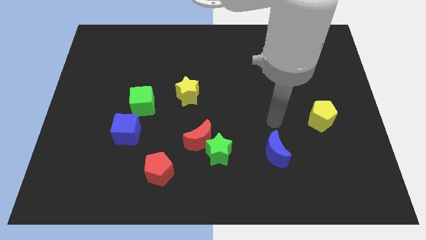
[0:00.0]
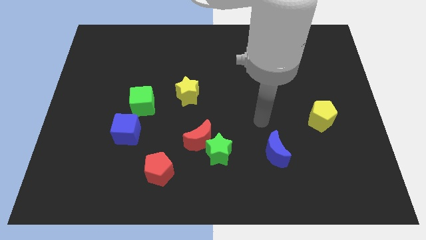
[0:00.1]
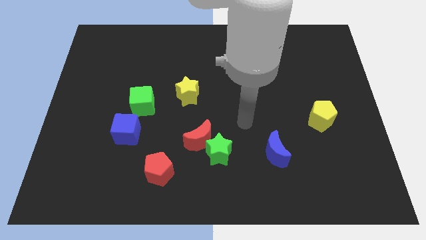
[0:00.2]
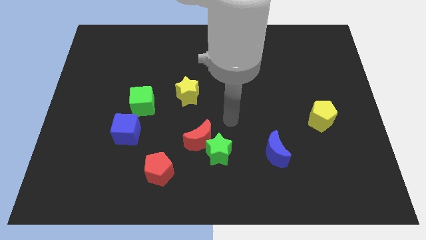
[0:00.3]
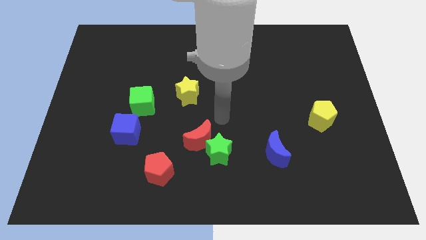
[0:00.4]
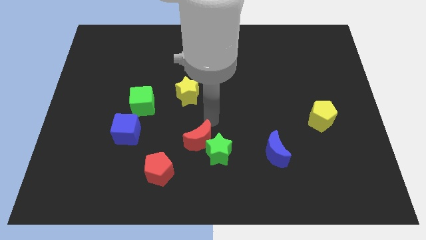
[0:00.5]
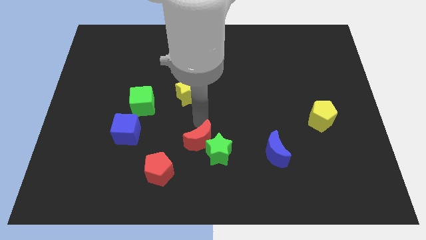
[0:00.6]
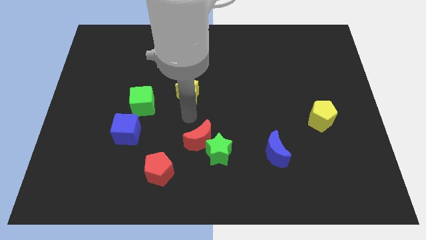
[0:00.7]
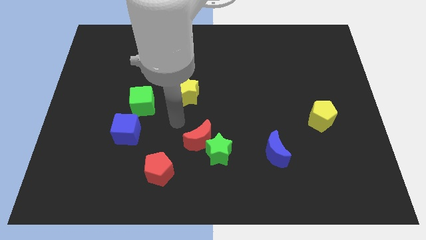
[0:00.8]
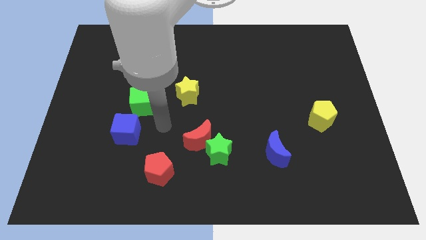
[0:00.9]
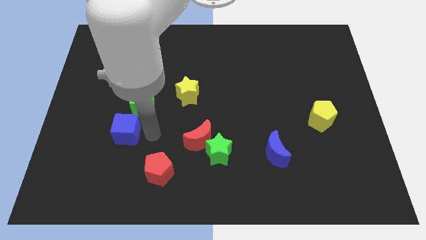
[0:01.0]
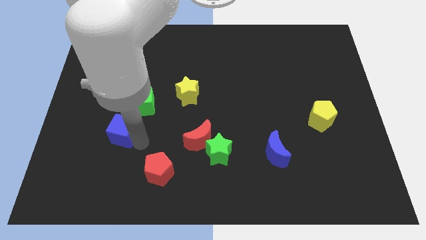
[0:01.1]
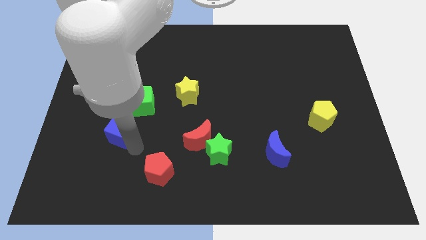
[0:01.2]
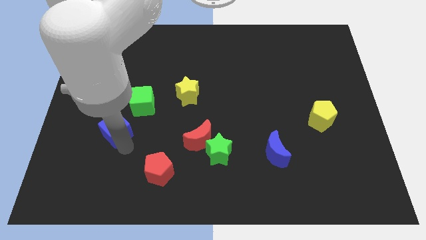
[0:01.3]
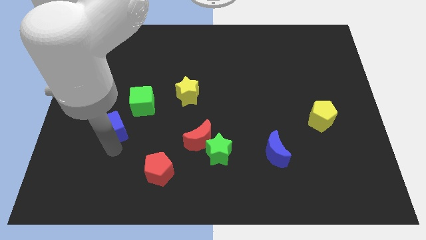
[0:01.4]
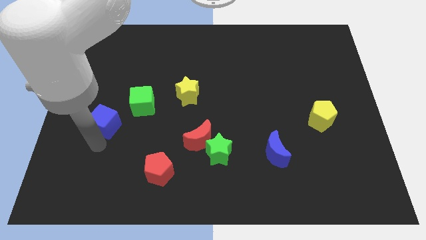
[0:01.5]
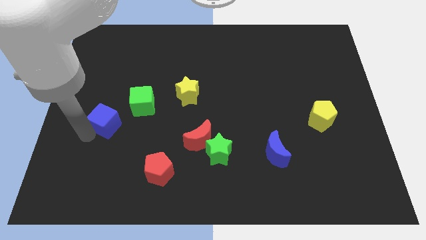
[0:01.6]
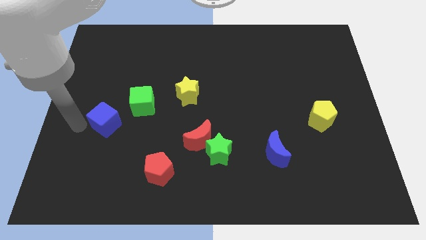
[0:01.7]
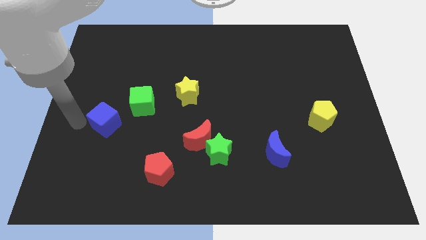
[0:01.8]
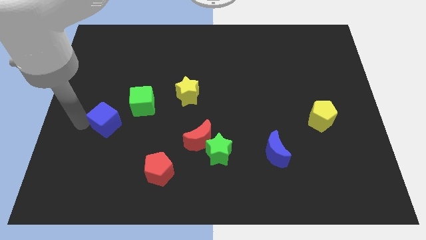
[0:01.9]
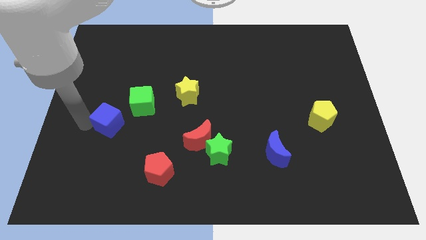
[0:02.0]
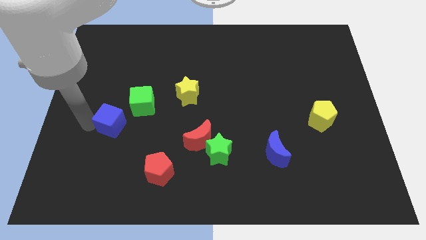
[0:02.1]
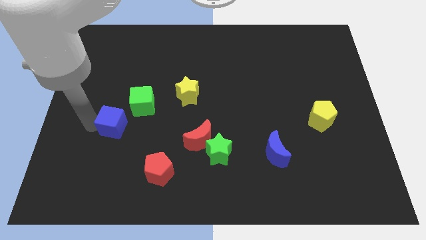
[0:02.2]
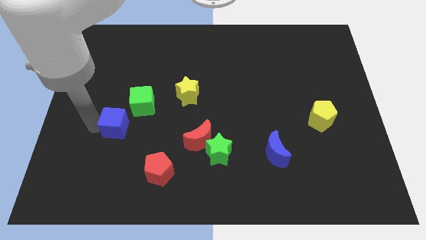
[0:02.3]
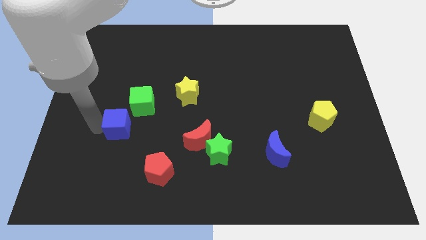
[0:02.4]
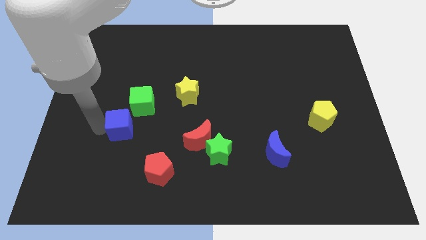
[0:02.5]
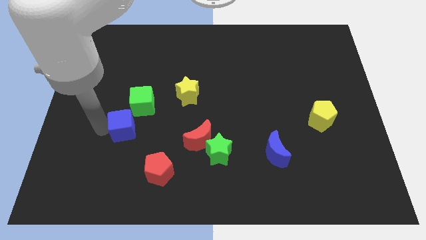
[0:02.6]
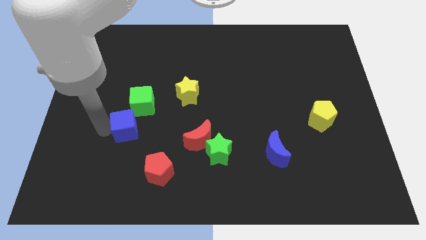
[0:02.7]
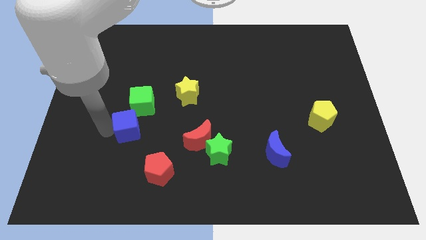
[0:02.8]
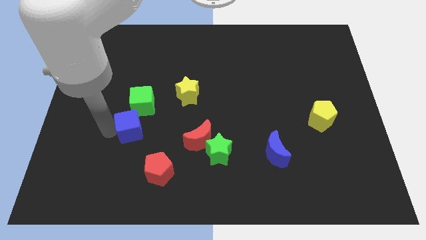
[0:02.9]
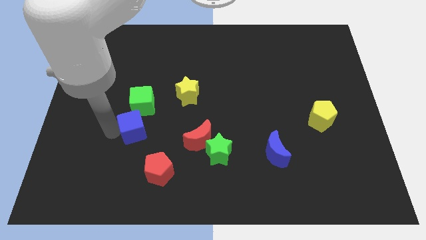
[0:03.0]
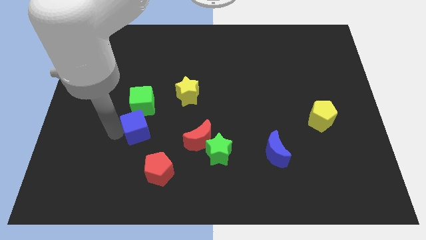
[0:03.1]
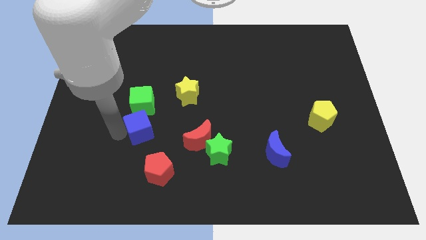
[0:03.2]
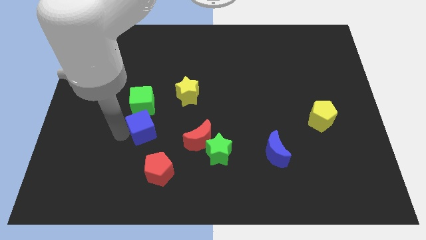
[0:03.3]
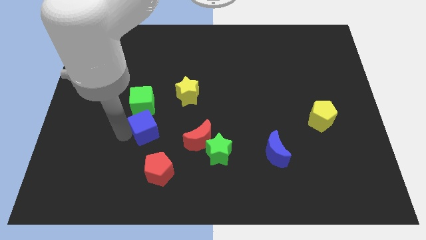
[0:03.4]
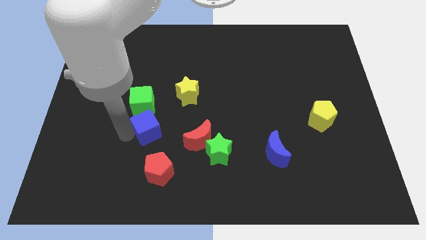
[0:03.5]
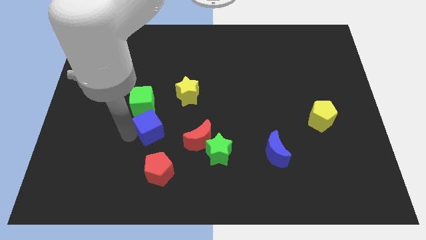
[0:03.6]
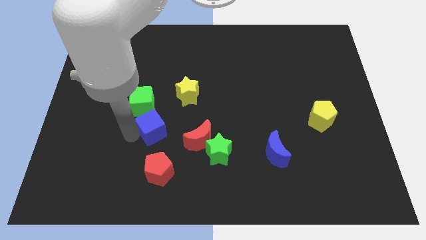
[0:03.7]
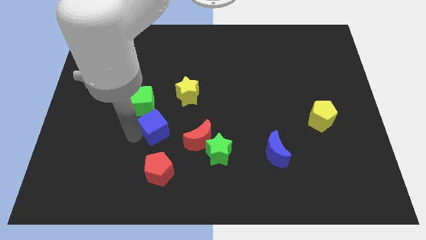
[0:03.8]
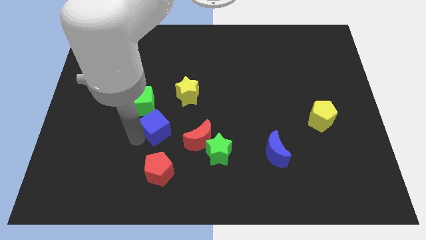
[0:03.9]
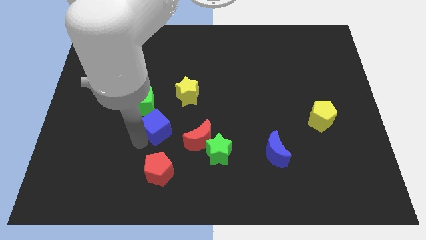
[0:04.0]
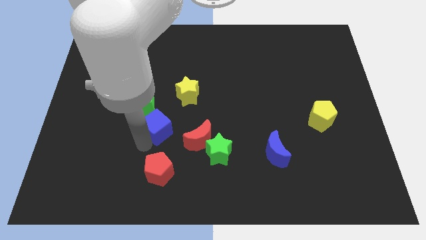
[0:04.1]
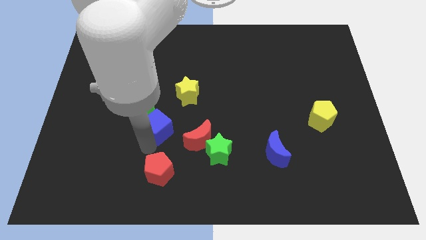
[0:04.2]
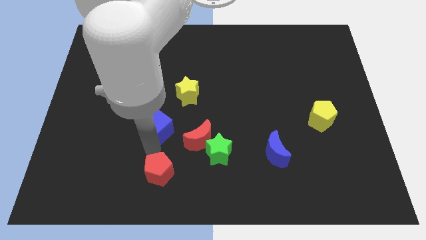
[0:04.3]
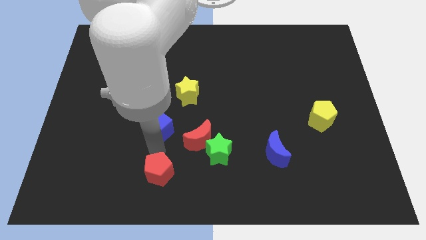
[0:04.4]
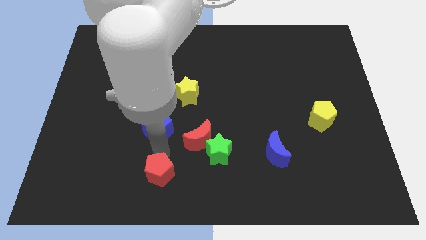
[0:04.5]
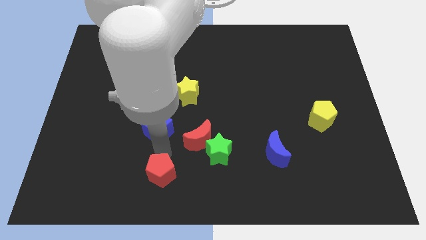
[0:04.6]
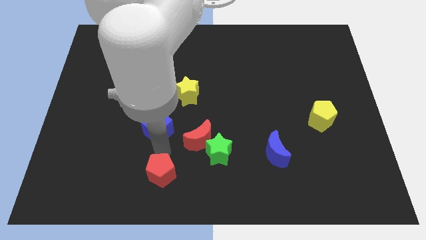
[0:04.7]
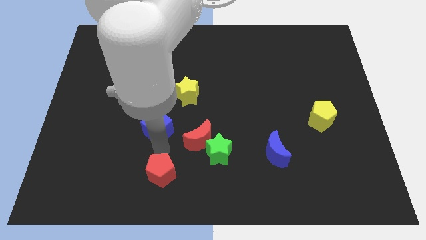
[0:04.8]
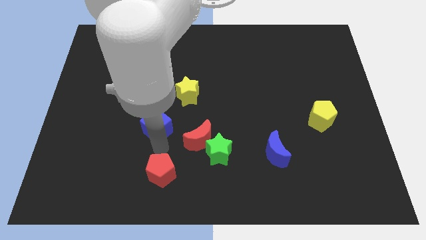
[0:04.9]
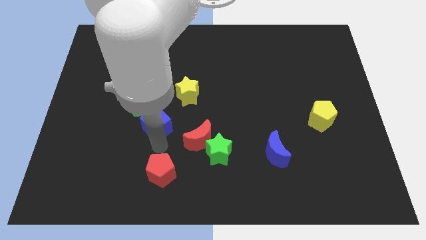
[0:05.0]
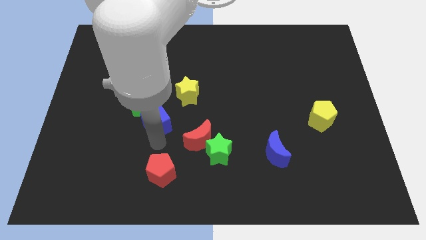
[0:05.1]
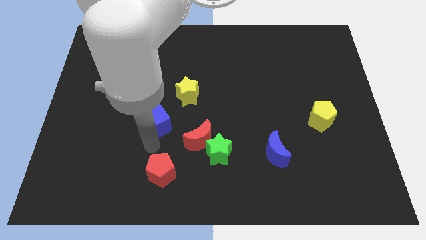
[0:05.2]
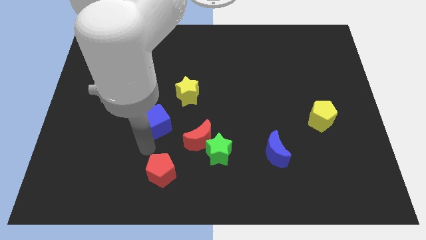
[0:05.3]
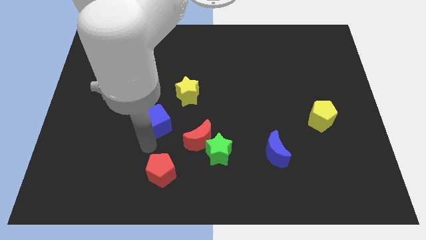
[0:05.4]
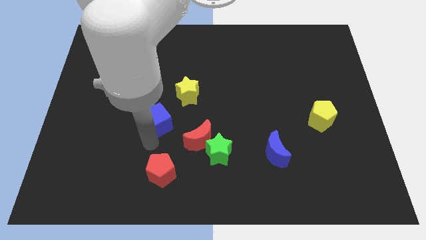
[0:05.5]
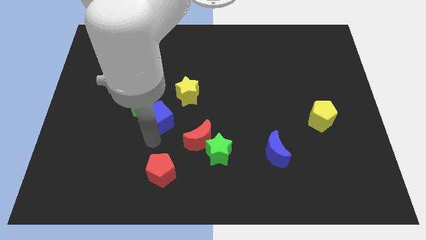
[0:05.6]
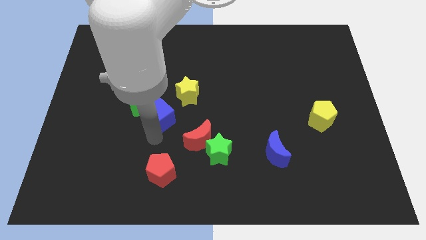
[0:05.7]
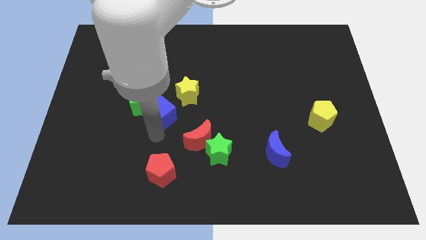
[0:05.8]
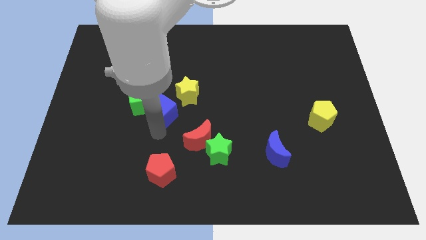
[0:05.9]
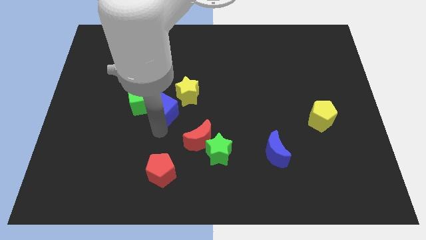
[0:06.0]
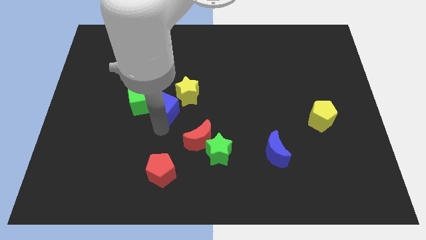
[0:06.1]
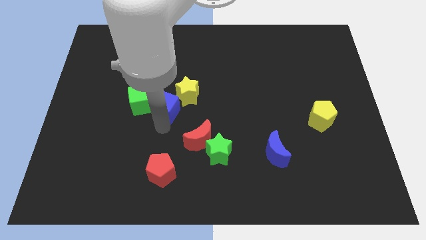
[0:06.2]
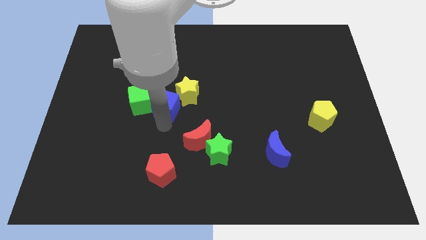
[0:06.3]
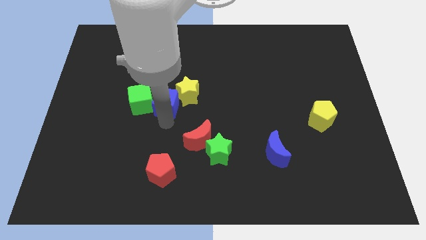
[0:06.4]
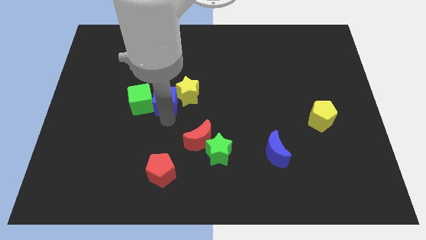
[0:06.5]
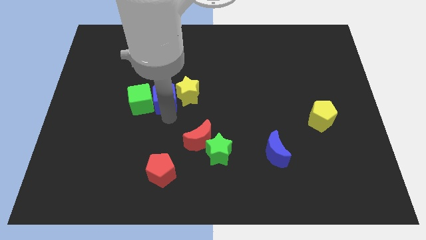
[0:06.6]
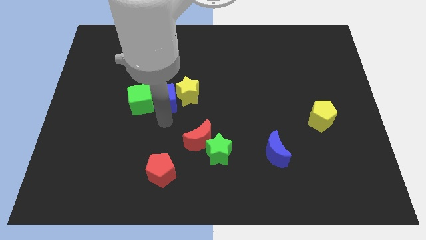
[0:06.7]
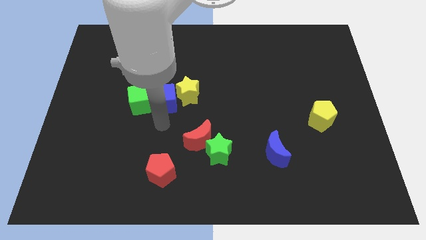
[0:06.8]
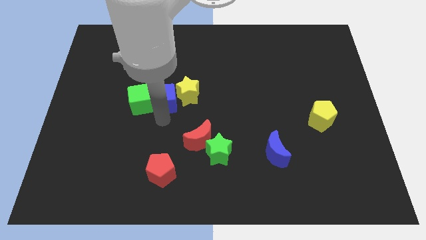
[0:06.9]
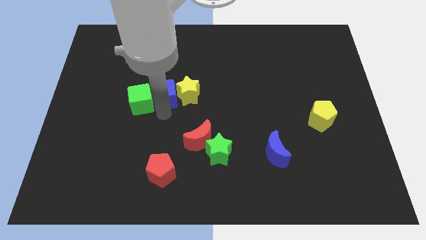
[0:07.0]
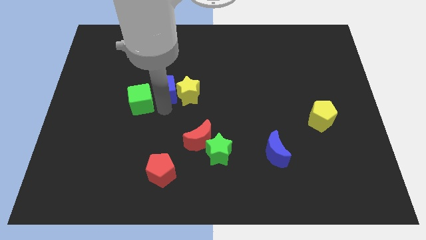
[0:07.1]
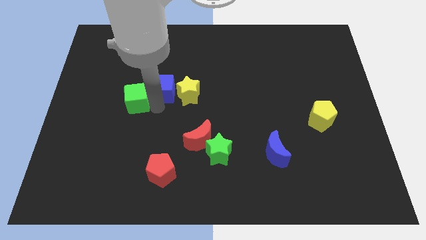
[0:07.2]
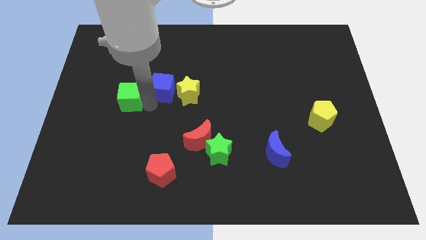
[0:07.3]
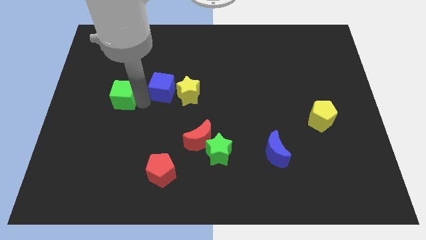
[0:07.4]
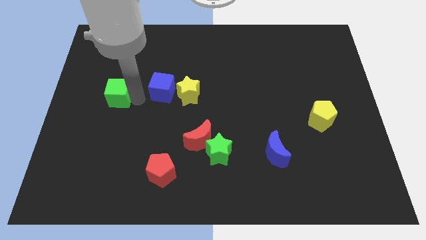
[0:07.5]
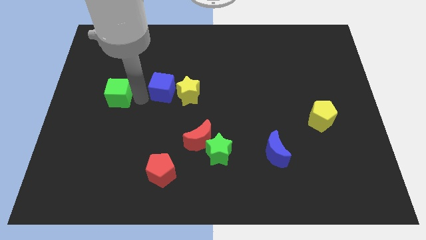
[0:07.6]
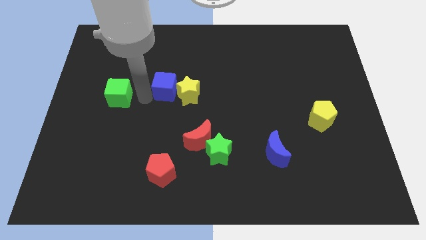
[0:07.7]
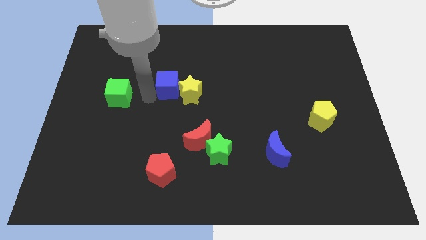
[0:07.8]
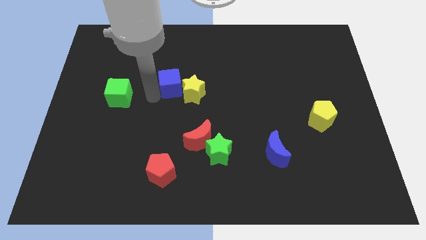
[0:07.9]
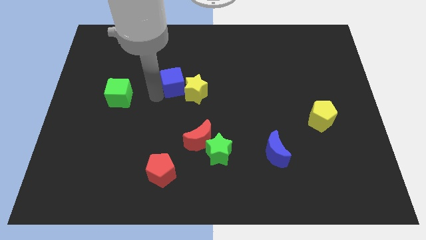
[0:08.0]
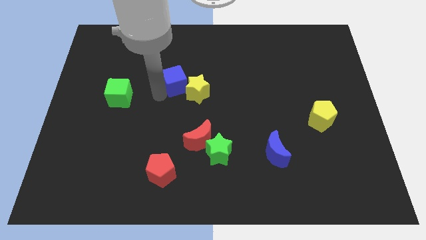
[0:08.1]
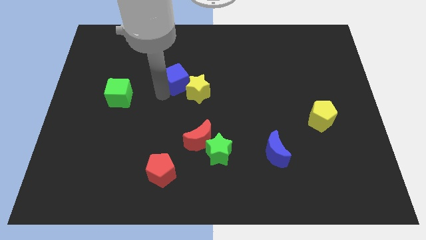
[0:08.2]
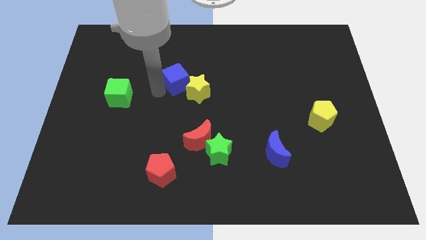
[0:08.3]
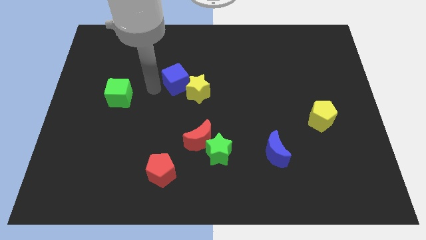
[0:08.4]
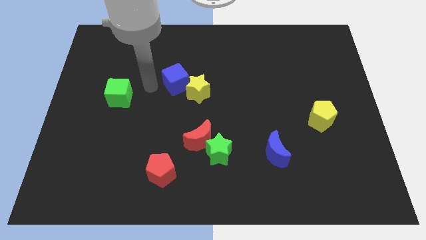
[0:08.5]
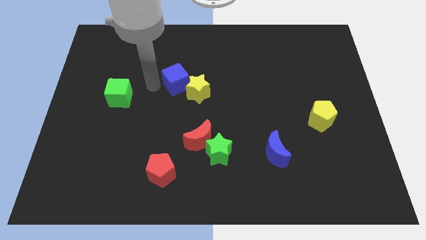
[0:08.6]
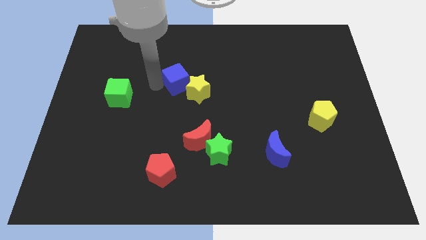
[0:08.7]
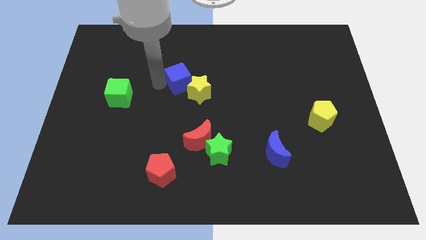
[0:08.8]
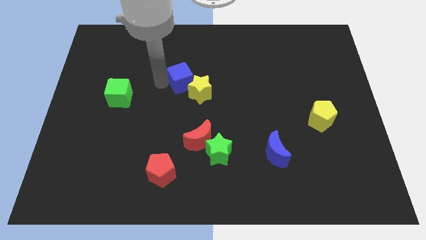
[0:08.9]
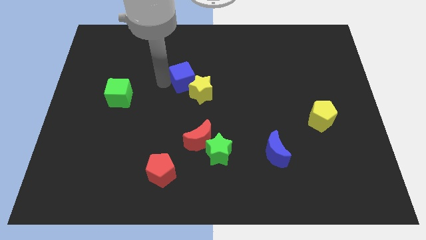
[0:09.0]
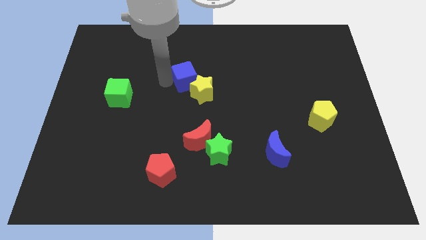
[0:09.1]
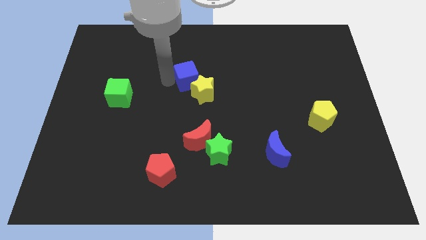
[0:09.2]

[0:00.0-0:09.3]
move the blue cube diagonally up and to the right
